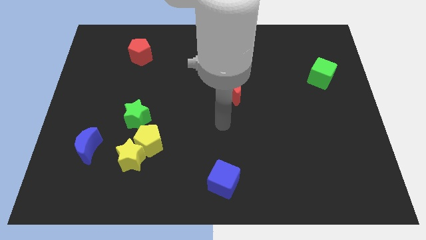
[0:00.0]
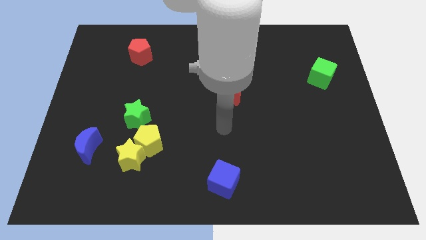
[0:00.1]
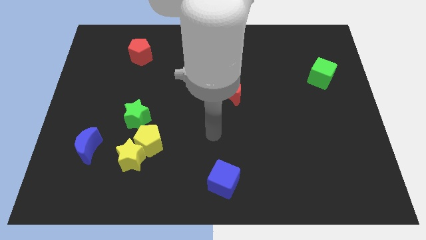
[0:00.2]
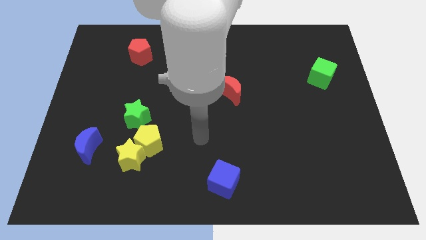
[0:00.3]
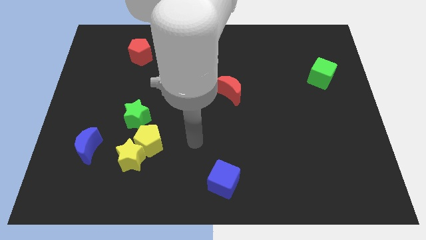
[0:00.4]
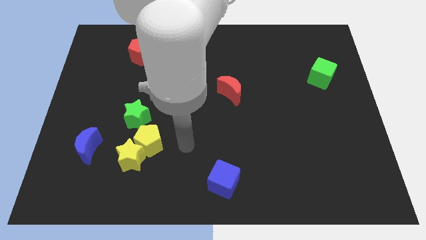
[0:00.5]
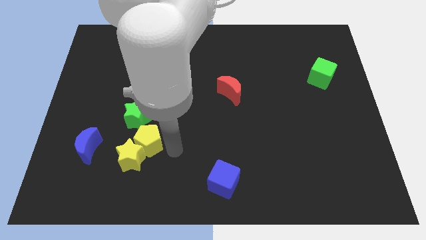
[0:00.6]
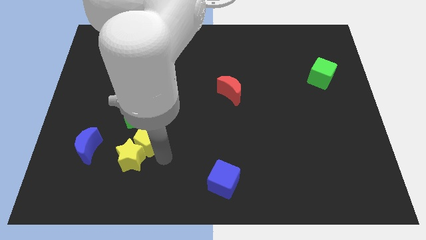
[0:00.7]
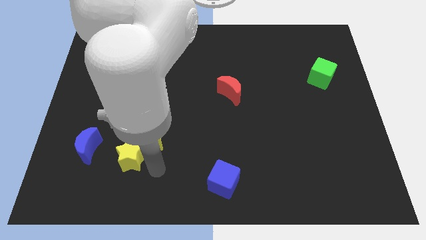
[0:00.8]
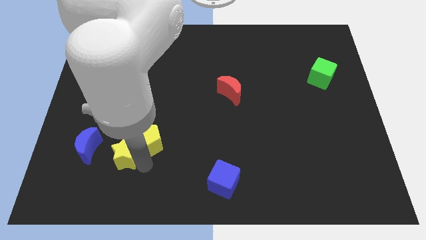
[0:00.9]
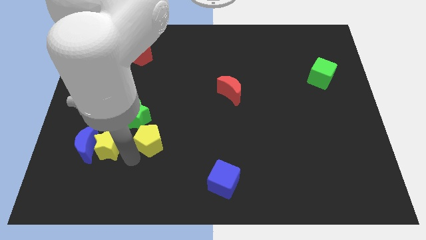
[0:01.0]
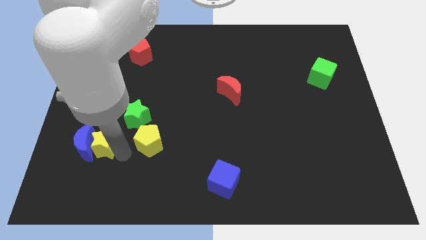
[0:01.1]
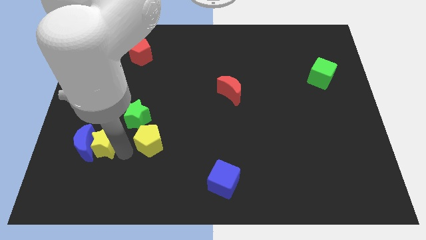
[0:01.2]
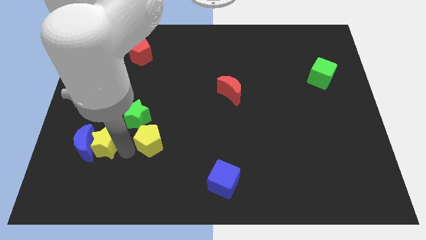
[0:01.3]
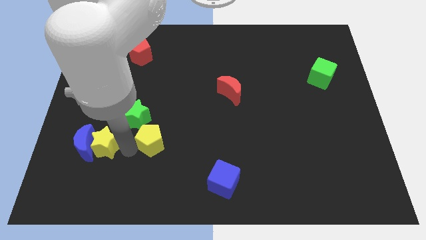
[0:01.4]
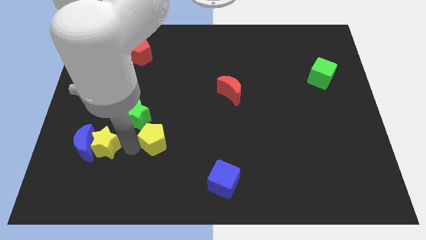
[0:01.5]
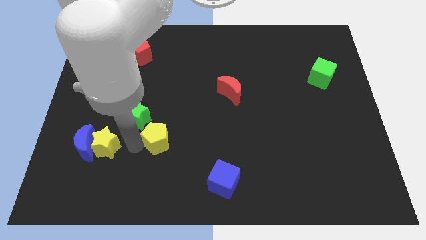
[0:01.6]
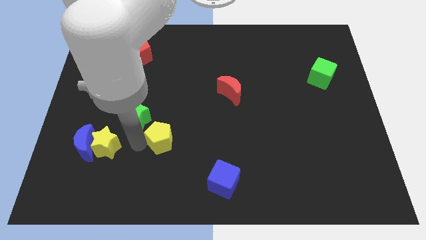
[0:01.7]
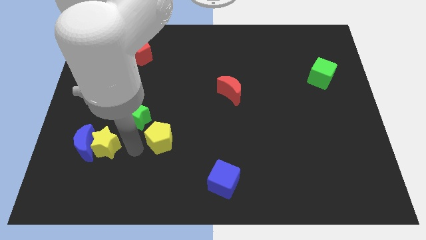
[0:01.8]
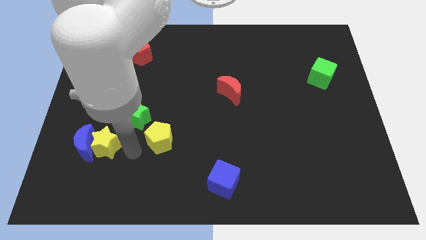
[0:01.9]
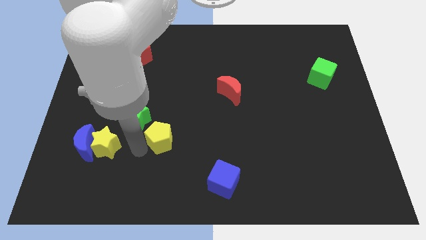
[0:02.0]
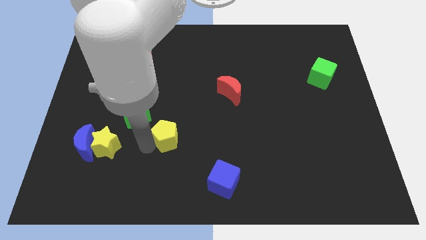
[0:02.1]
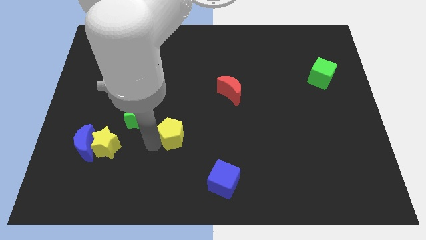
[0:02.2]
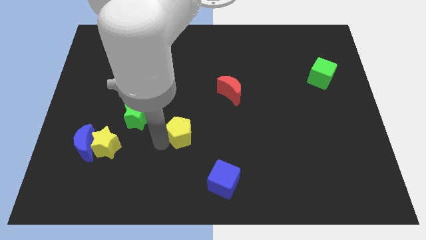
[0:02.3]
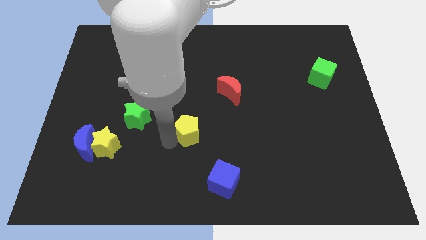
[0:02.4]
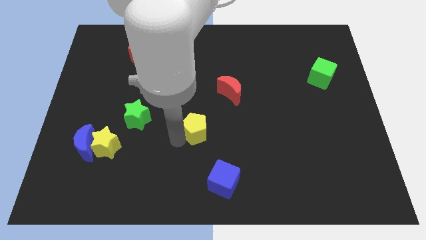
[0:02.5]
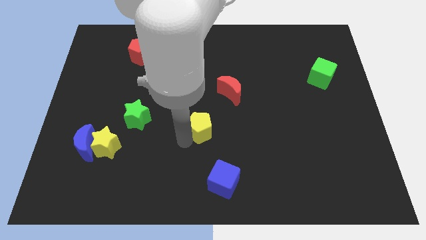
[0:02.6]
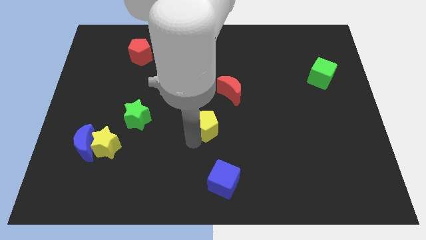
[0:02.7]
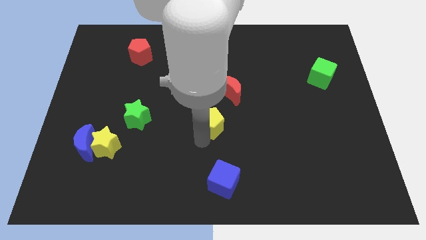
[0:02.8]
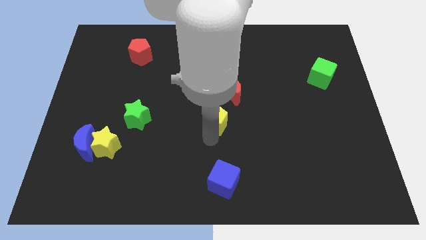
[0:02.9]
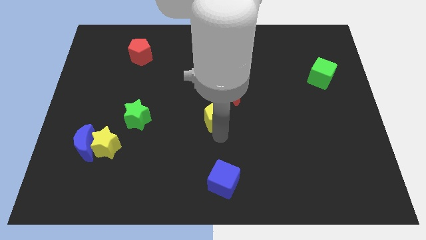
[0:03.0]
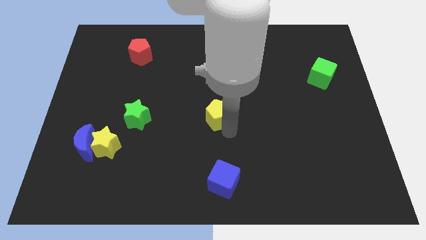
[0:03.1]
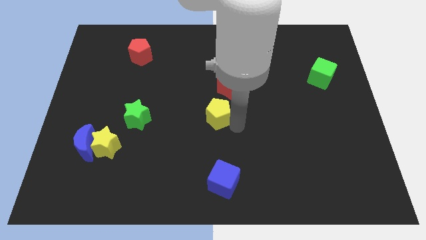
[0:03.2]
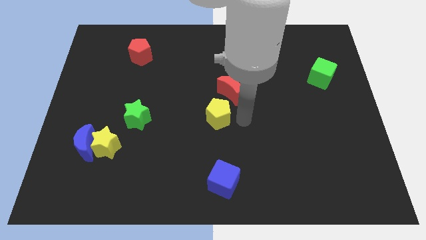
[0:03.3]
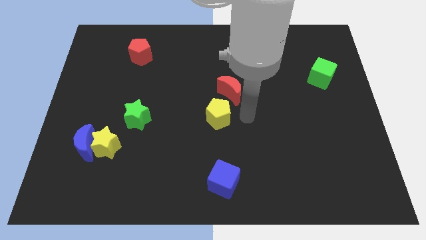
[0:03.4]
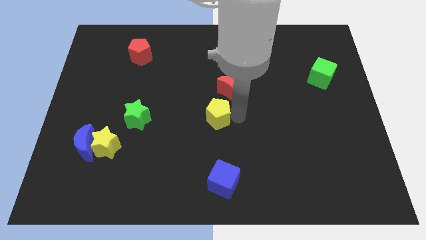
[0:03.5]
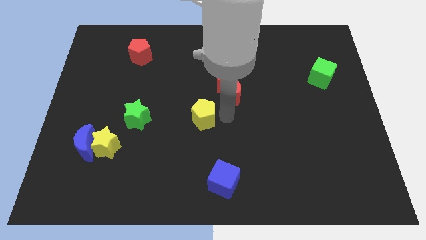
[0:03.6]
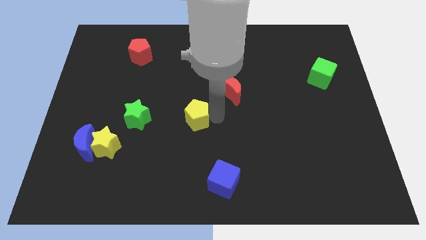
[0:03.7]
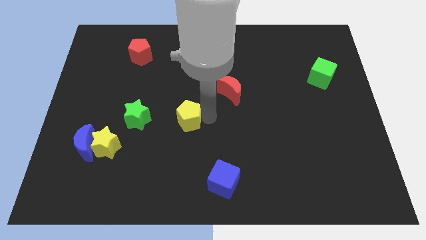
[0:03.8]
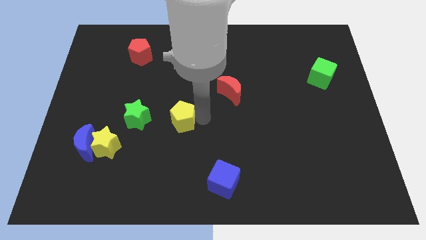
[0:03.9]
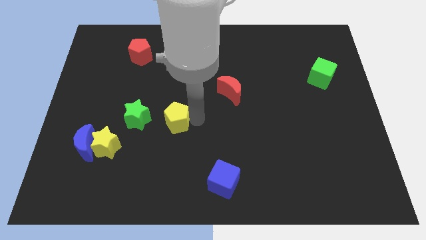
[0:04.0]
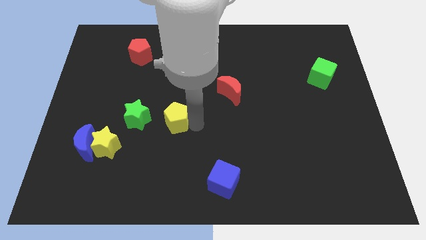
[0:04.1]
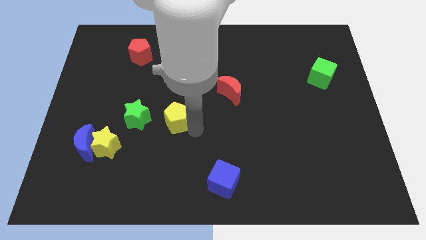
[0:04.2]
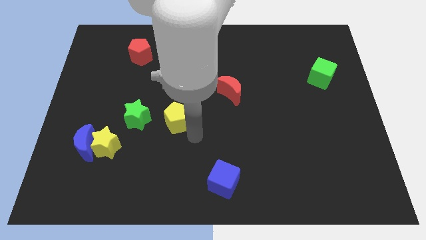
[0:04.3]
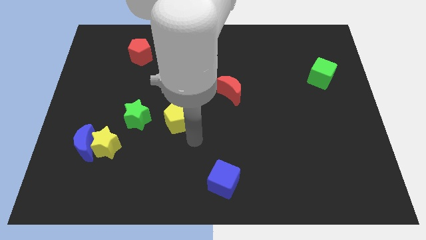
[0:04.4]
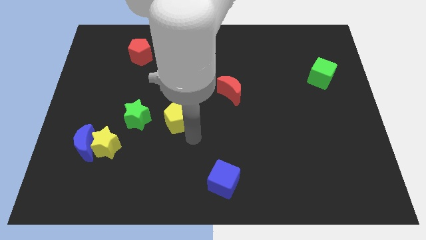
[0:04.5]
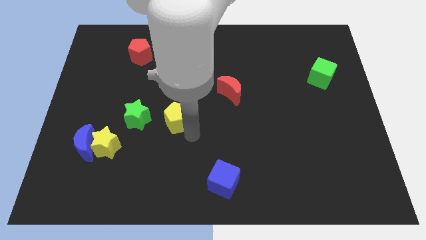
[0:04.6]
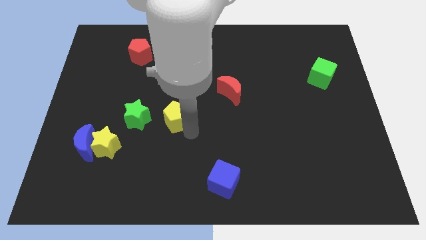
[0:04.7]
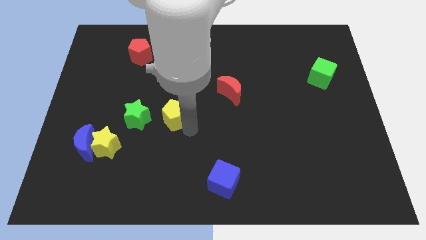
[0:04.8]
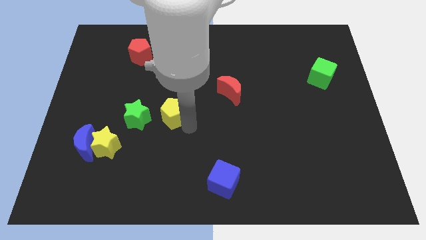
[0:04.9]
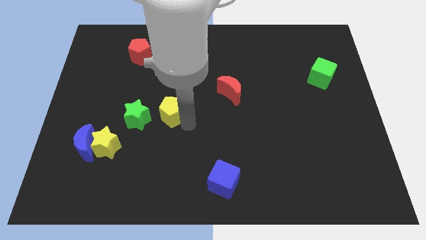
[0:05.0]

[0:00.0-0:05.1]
move the yellow pentagon to the top right side of the green star

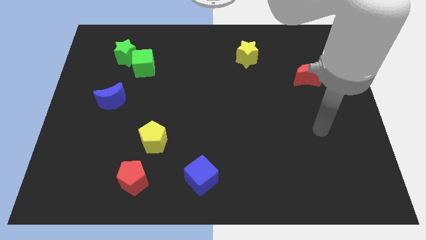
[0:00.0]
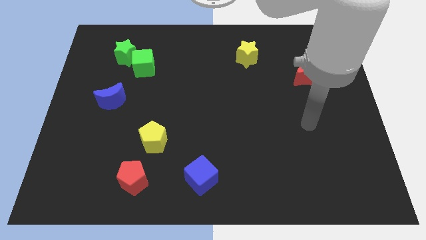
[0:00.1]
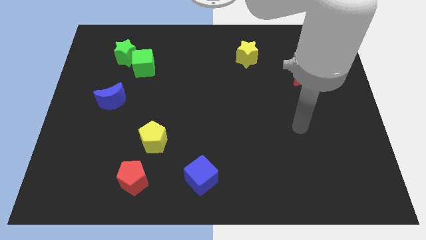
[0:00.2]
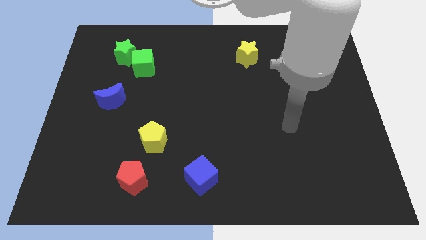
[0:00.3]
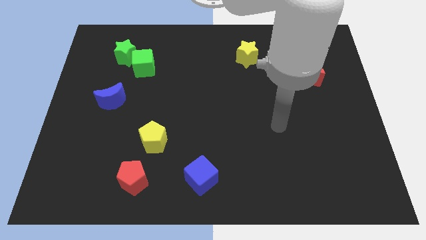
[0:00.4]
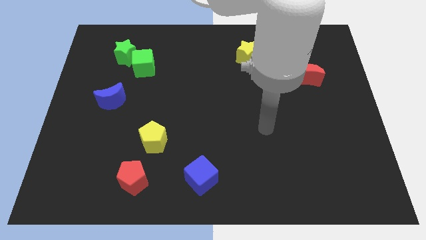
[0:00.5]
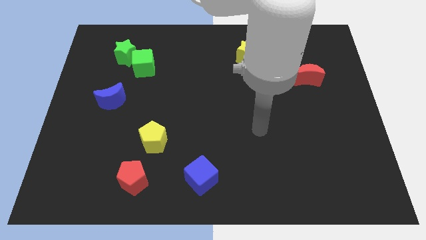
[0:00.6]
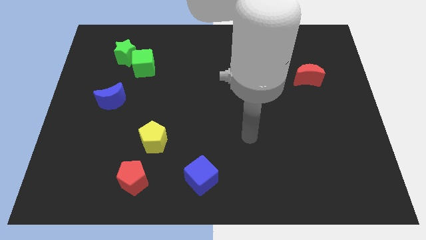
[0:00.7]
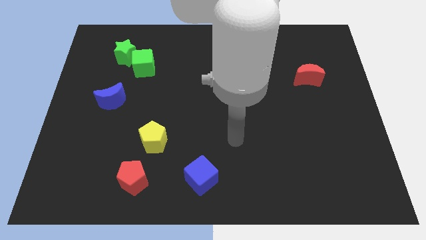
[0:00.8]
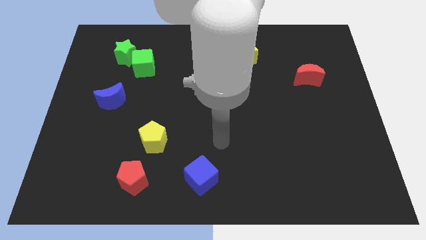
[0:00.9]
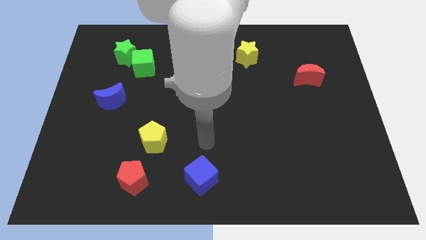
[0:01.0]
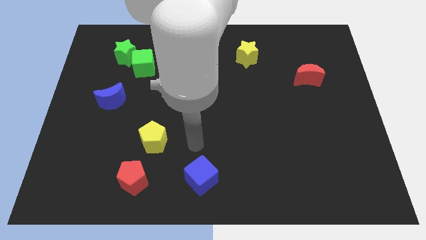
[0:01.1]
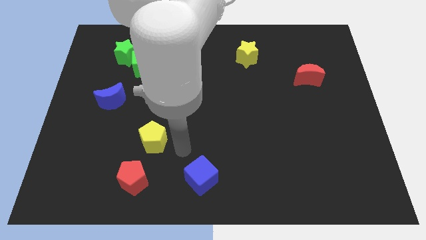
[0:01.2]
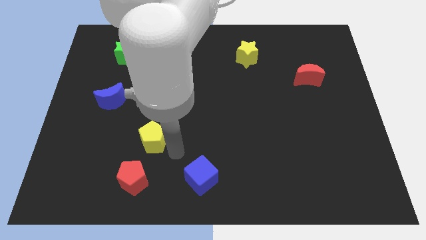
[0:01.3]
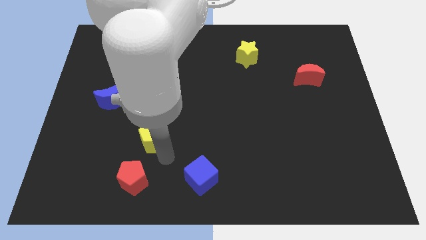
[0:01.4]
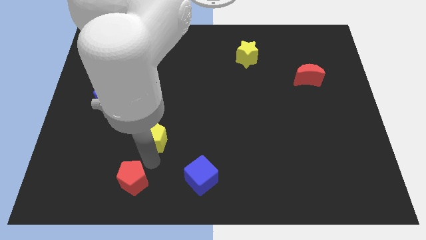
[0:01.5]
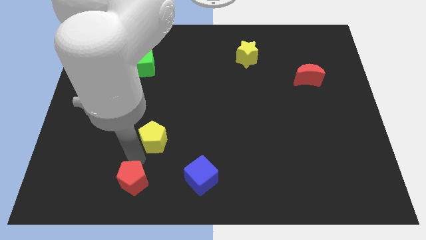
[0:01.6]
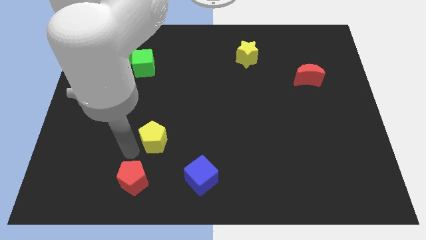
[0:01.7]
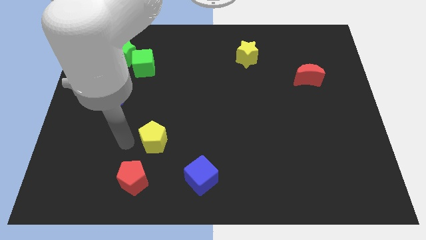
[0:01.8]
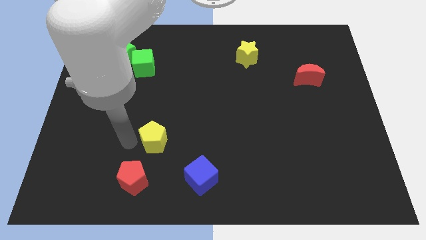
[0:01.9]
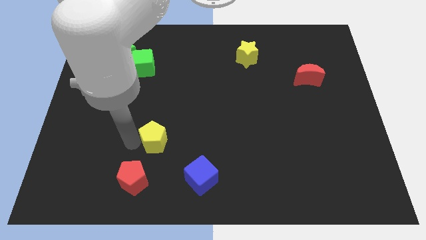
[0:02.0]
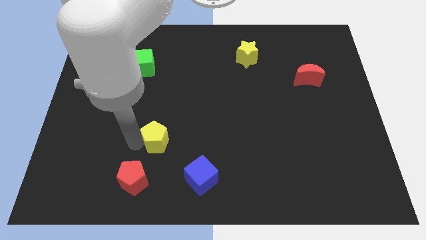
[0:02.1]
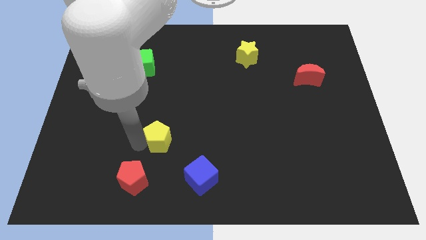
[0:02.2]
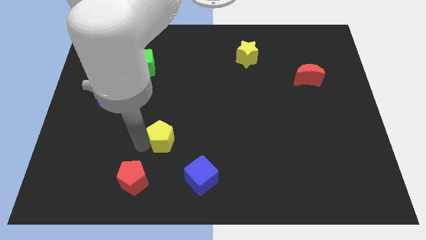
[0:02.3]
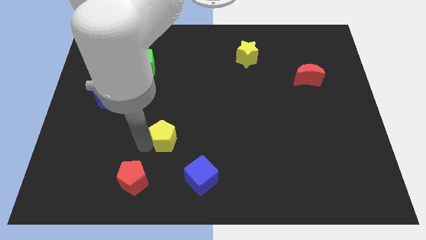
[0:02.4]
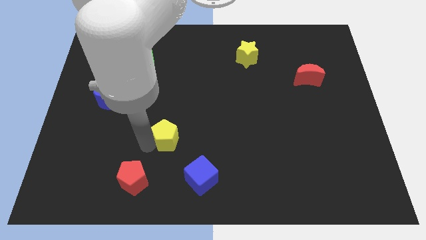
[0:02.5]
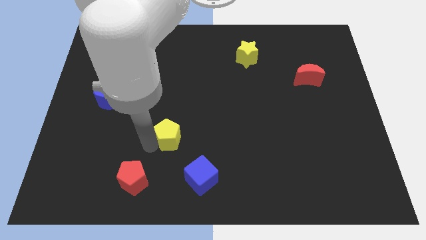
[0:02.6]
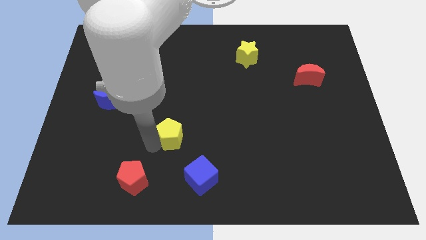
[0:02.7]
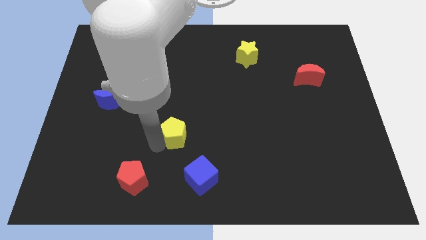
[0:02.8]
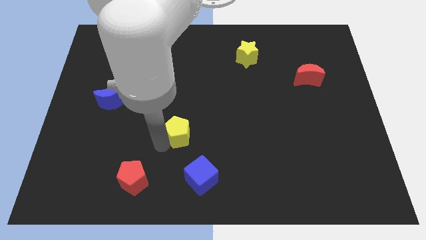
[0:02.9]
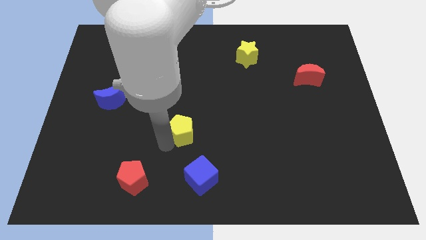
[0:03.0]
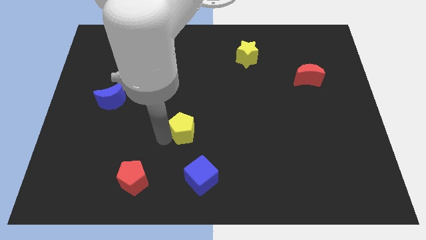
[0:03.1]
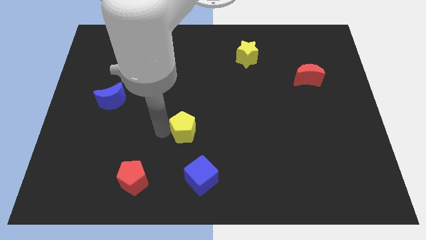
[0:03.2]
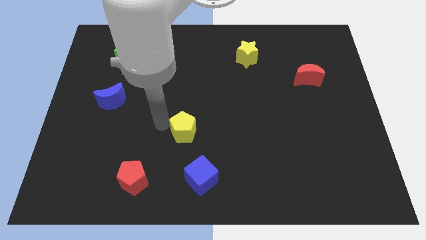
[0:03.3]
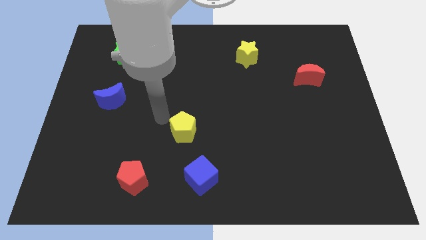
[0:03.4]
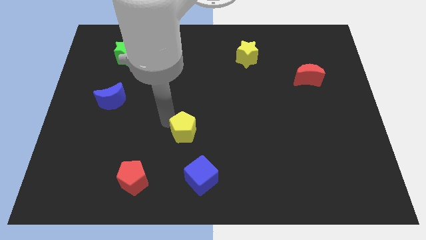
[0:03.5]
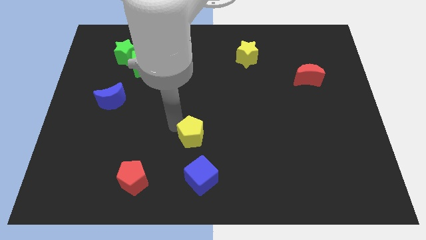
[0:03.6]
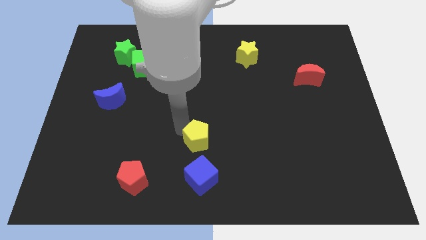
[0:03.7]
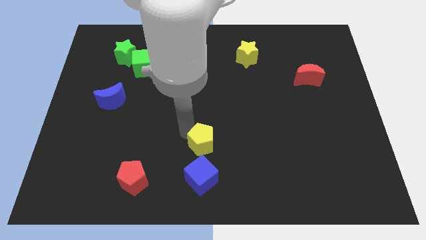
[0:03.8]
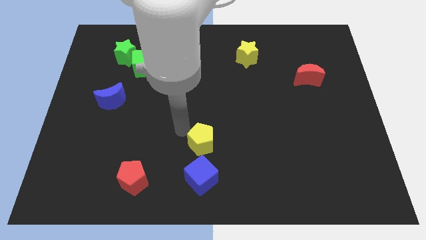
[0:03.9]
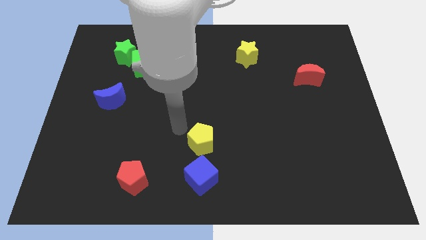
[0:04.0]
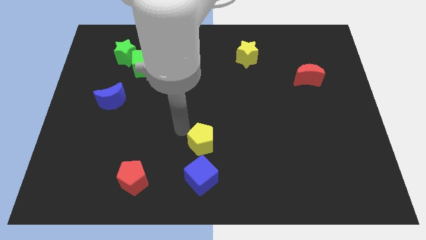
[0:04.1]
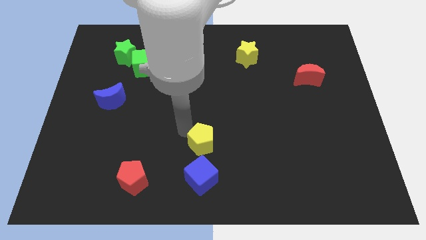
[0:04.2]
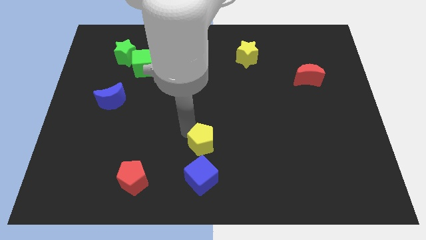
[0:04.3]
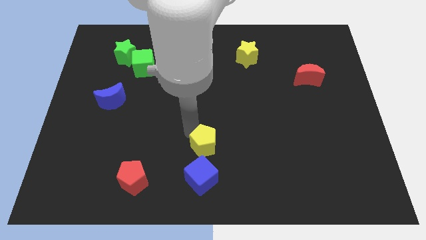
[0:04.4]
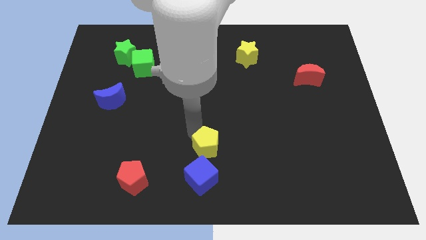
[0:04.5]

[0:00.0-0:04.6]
slide the yellow pentagon diagonally up and to the right of the blue cube
